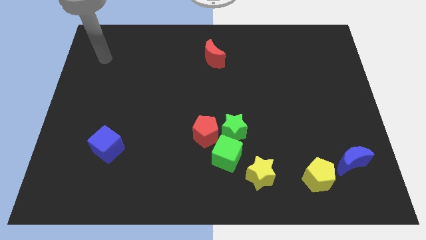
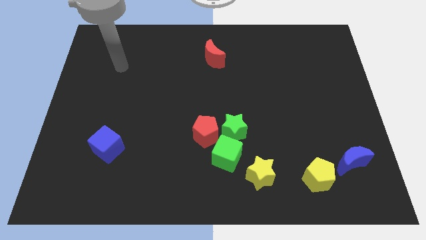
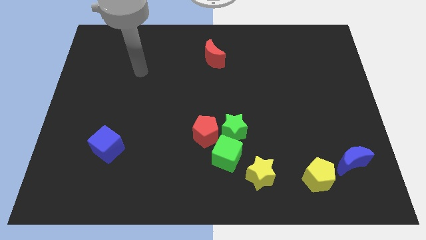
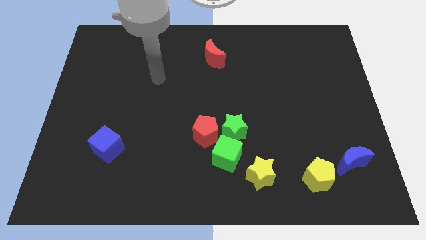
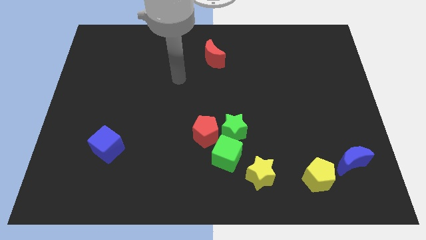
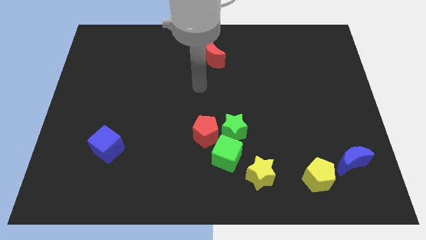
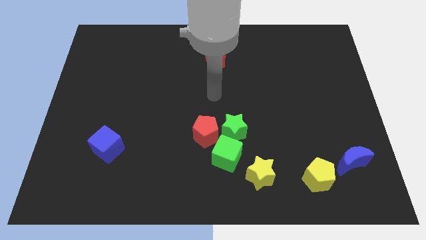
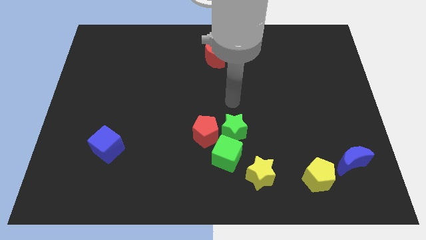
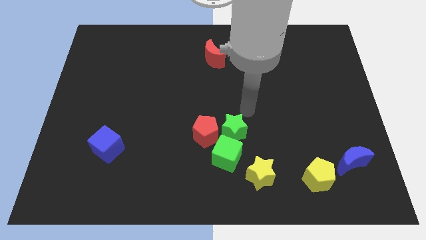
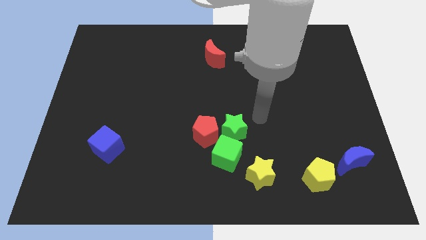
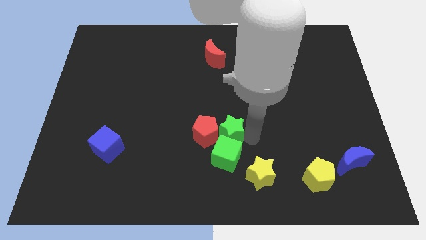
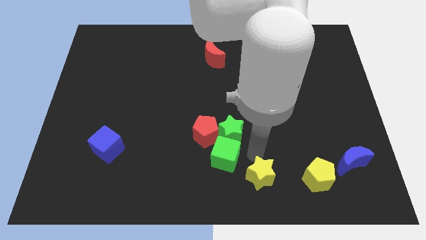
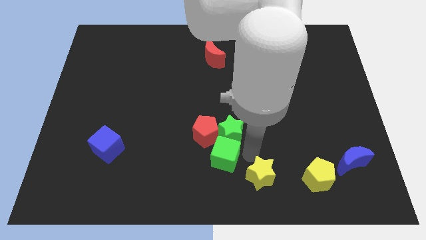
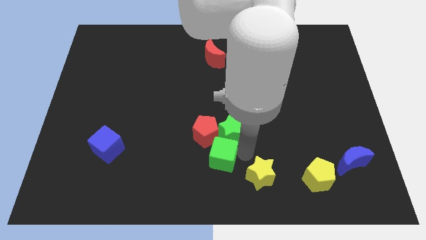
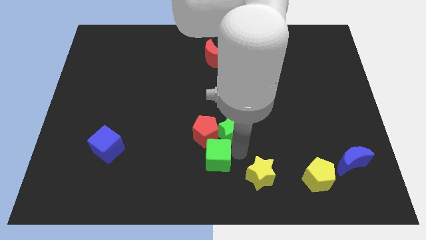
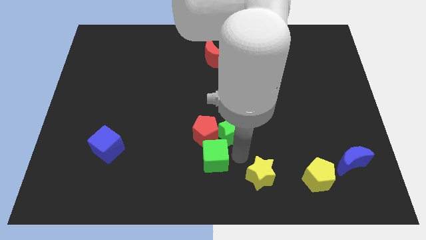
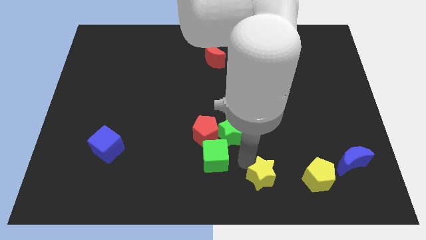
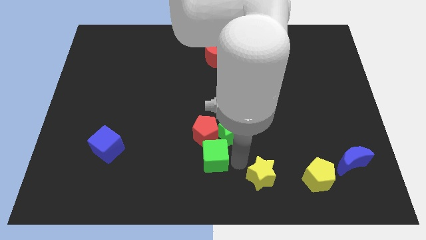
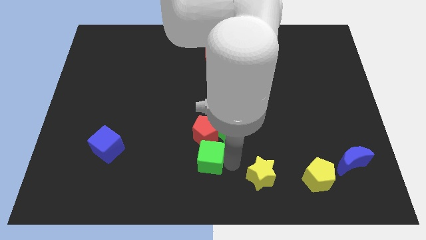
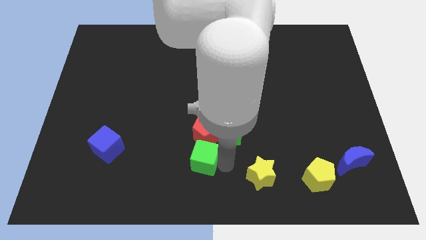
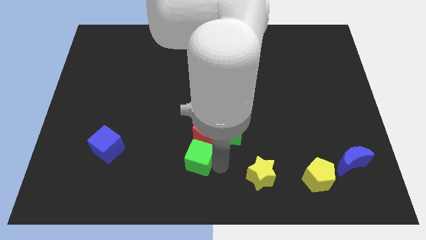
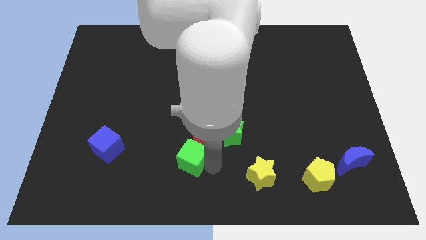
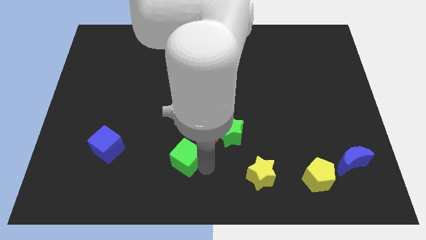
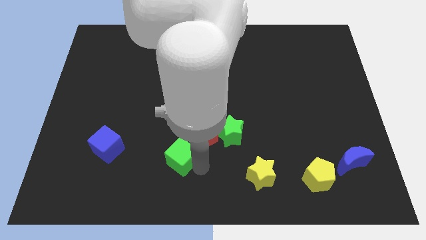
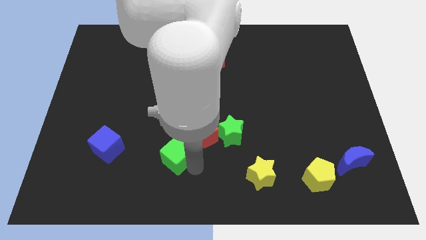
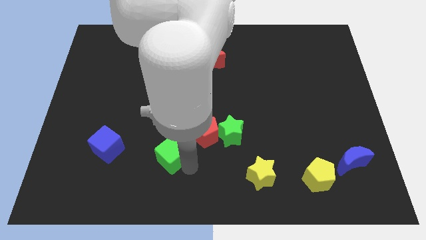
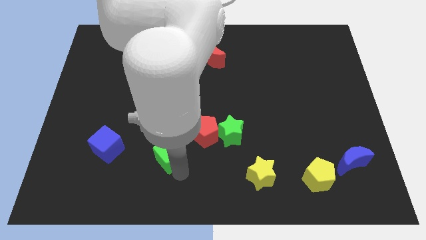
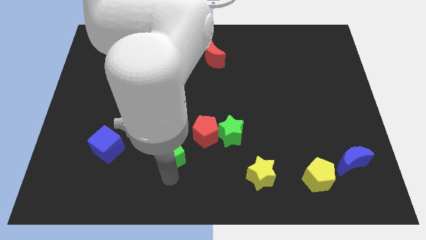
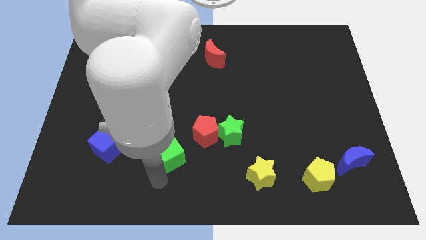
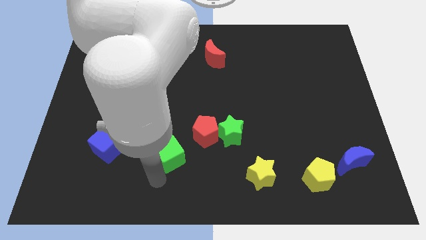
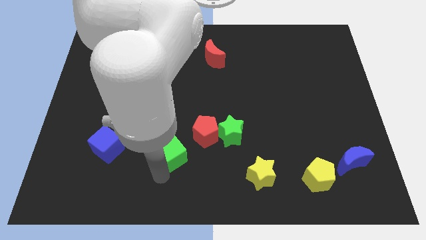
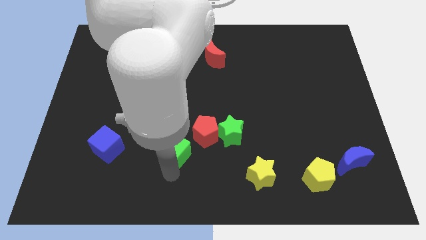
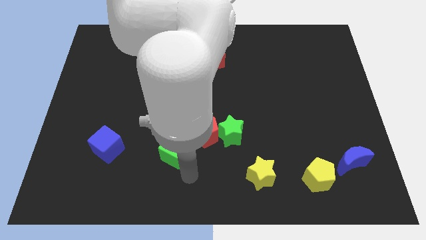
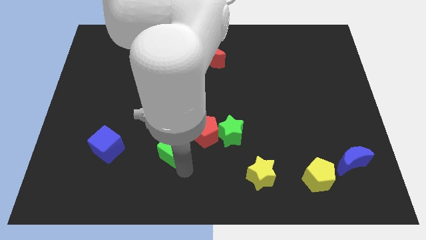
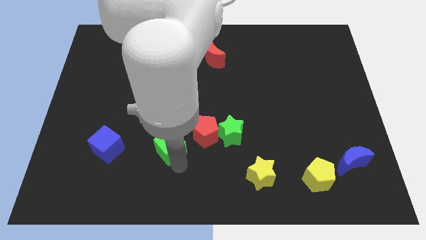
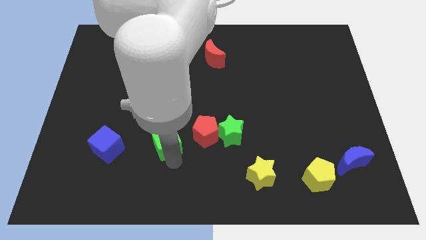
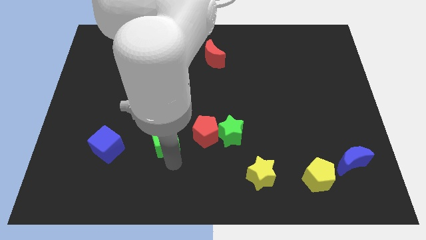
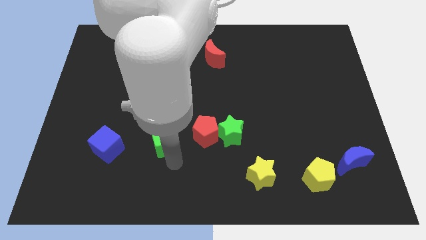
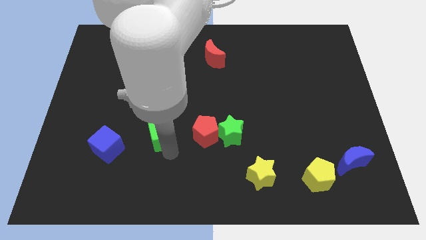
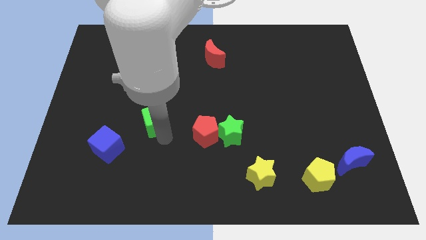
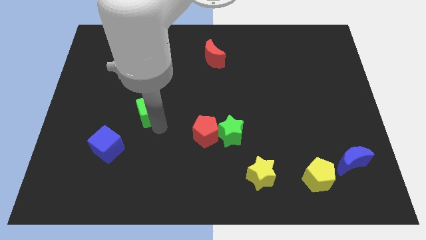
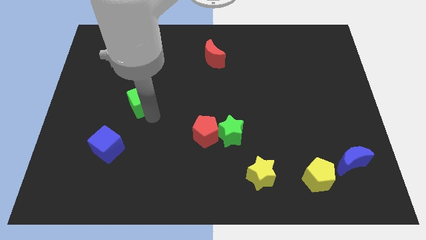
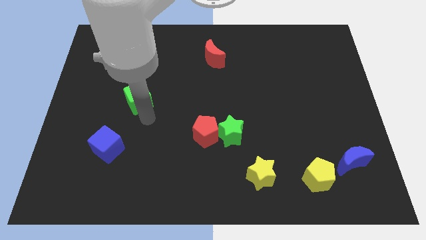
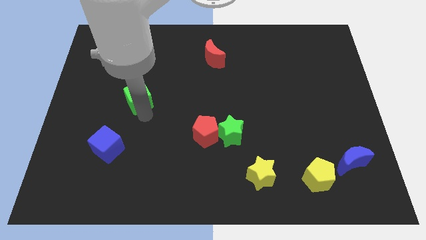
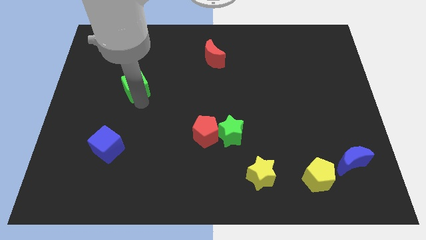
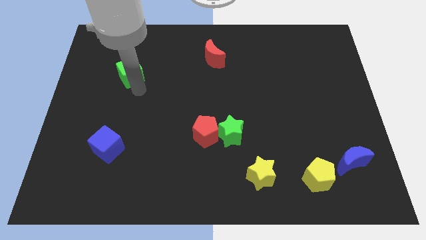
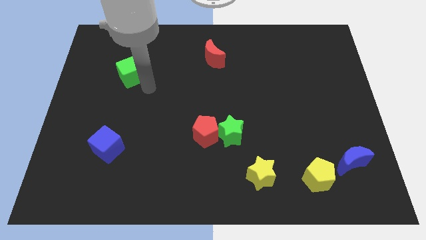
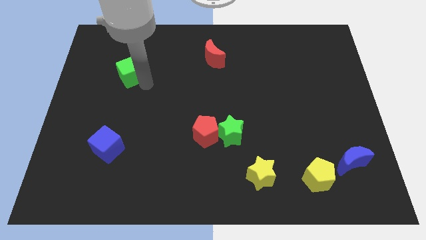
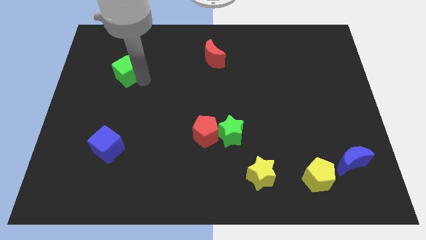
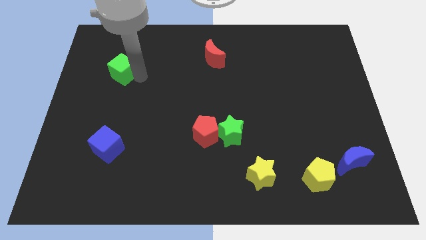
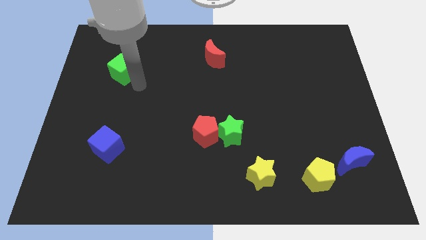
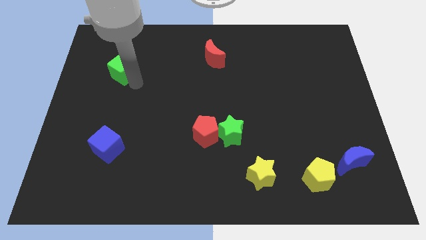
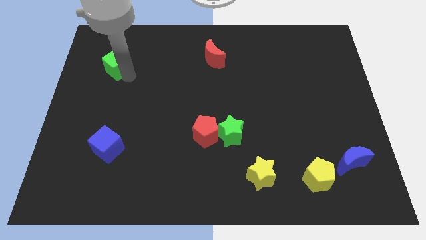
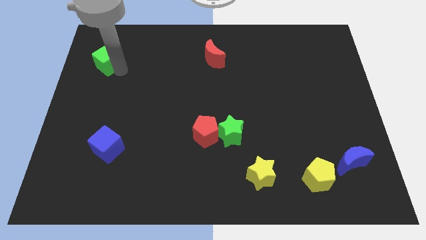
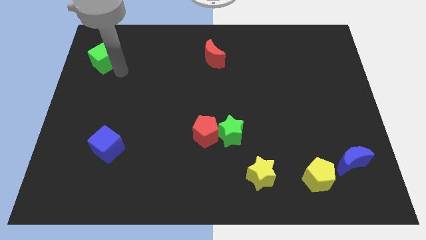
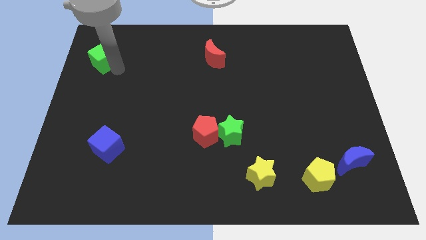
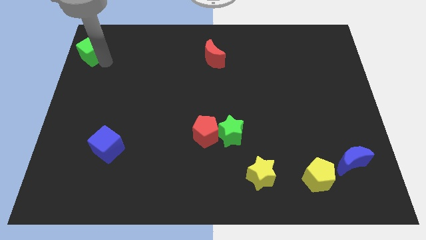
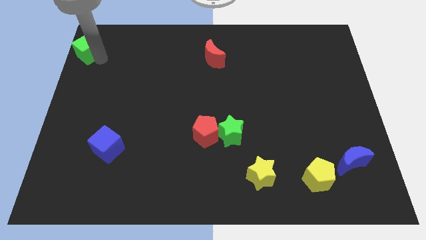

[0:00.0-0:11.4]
put the green cube to the top left corner

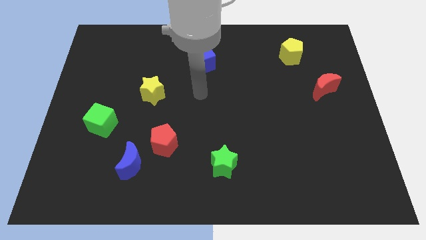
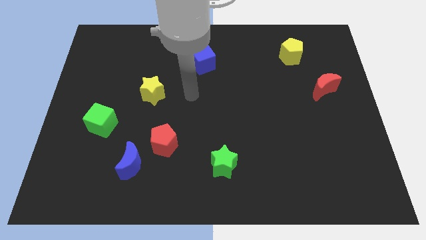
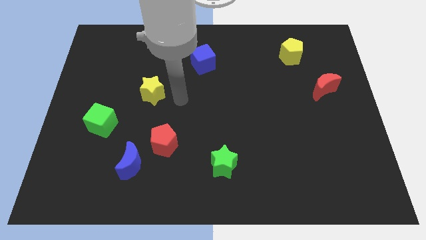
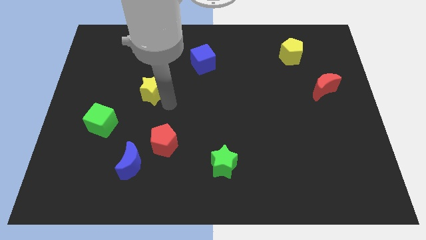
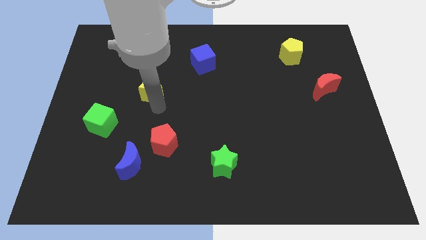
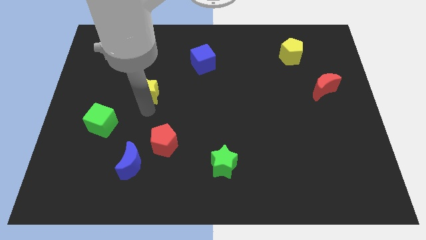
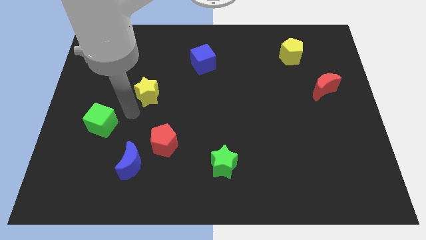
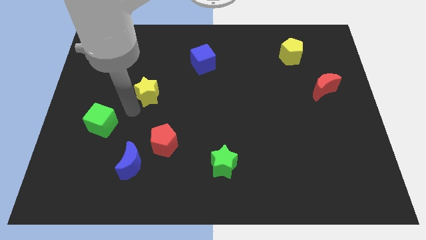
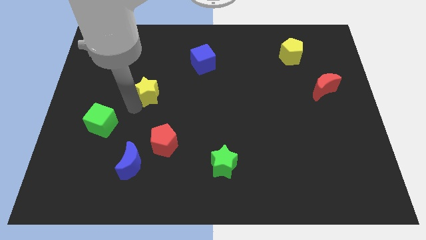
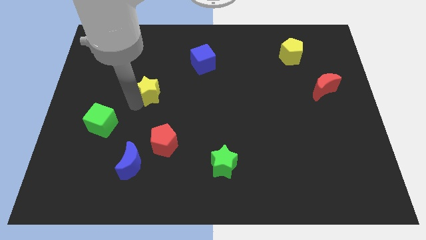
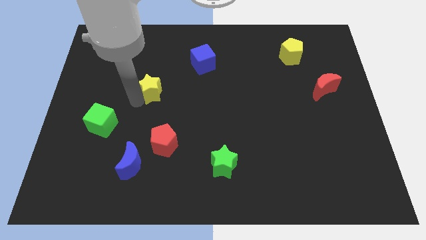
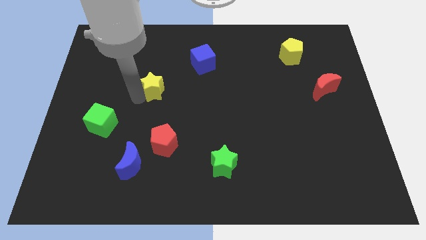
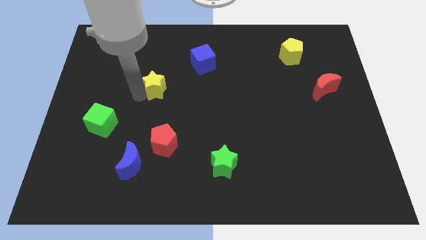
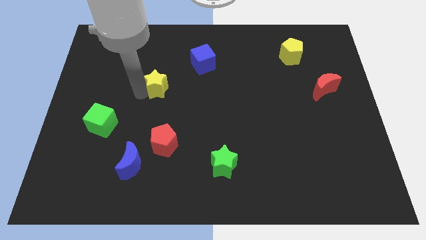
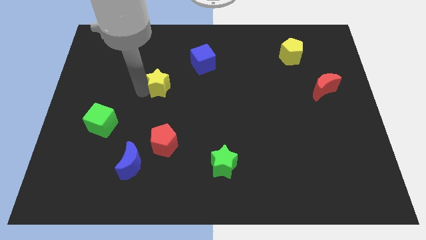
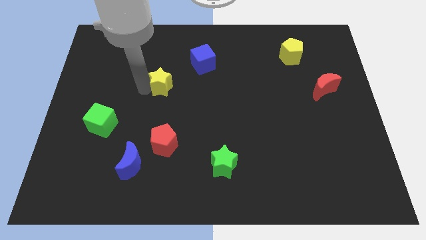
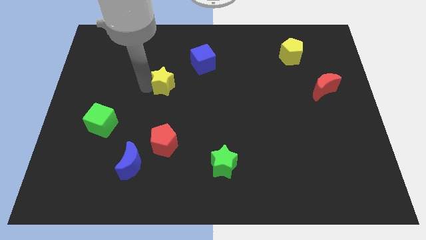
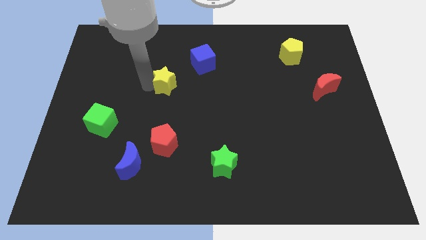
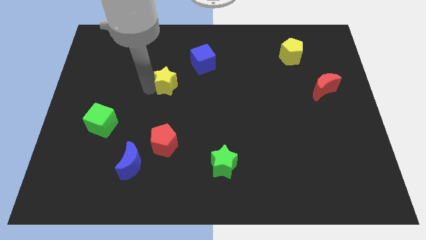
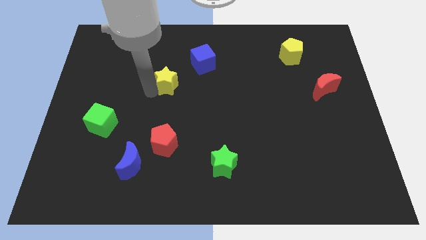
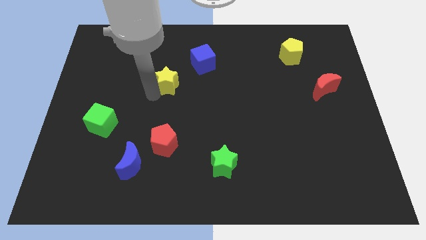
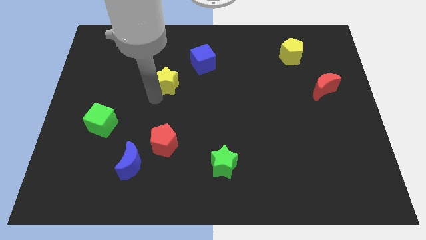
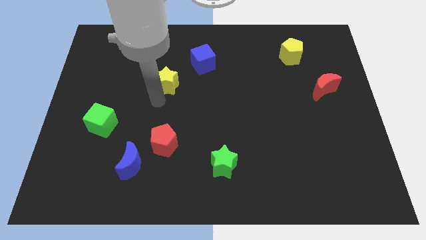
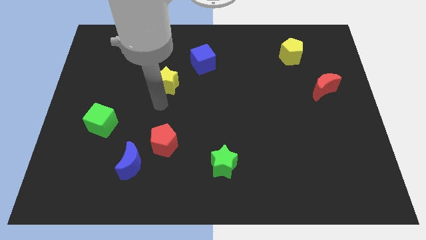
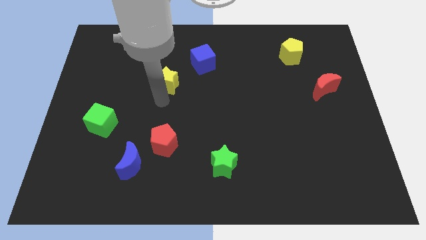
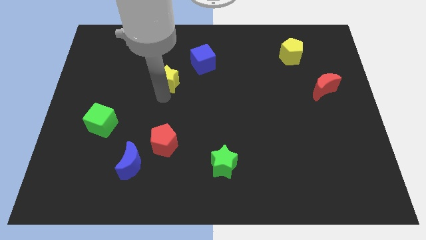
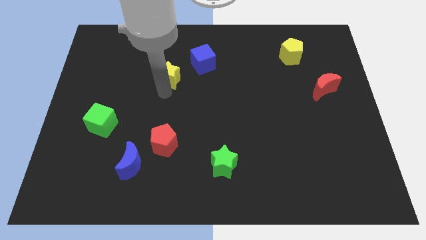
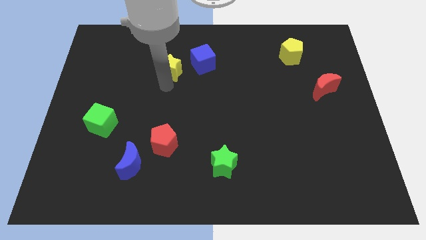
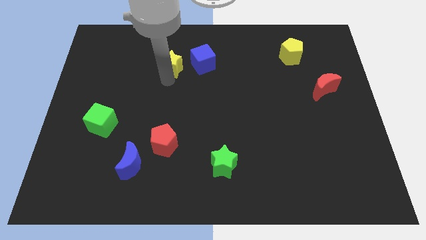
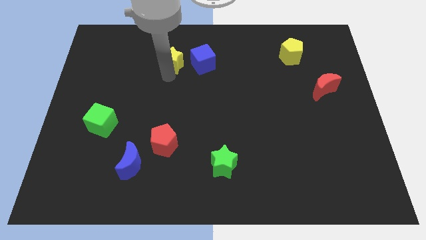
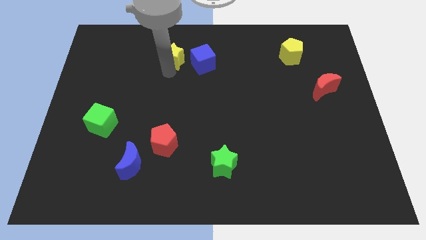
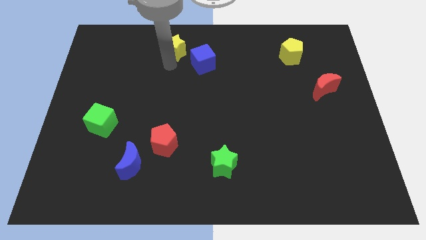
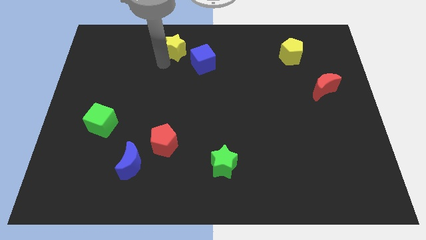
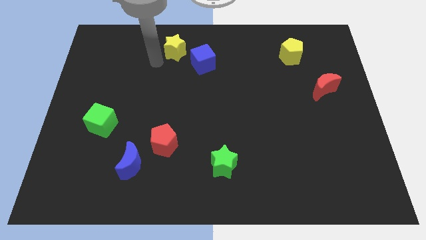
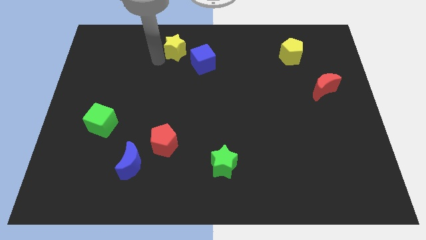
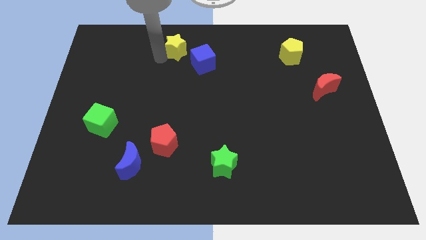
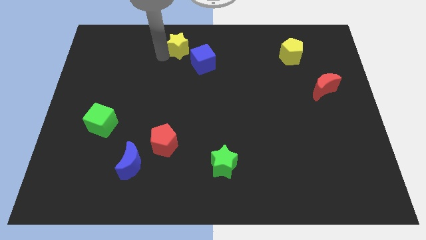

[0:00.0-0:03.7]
slide the yellow star to the top side
